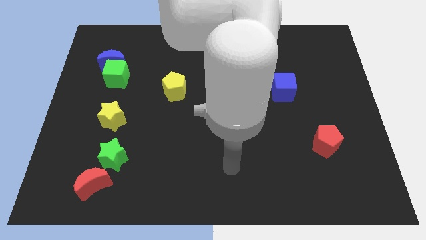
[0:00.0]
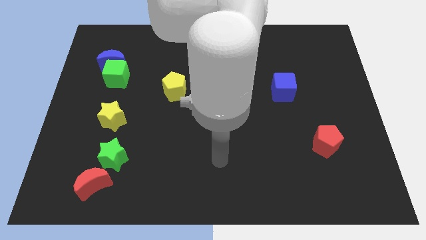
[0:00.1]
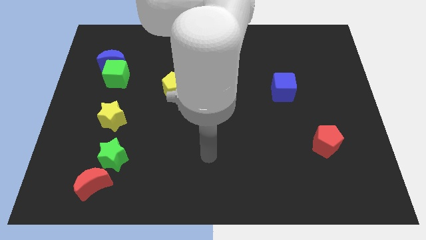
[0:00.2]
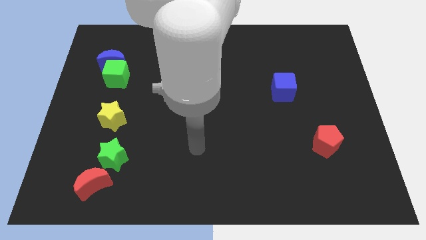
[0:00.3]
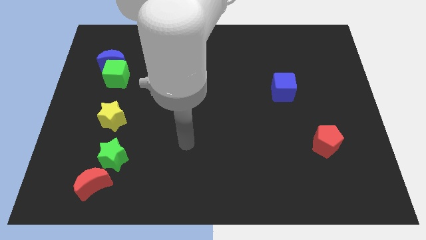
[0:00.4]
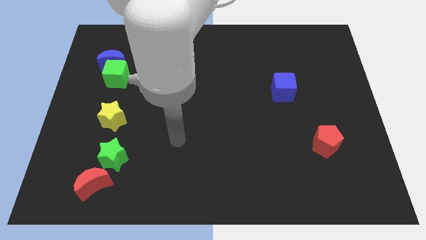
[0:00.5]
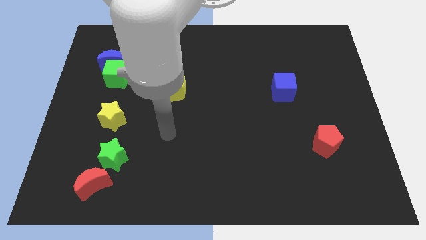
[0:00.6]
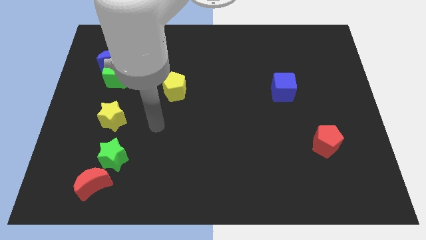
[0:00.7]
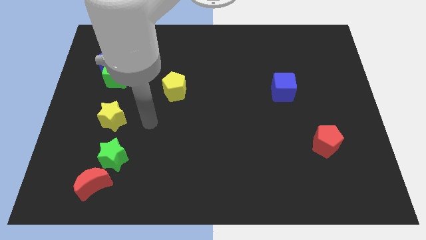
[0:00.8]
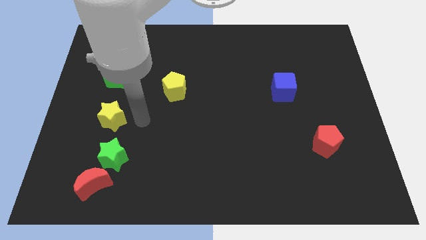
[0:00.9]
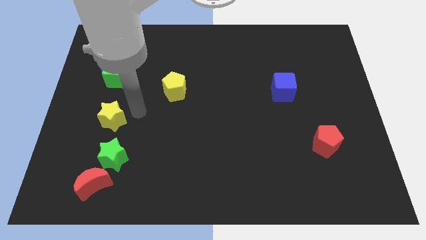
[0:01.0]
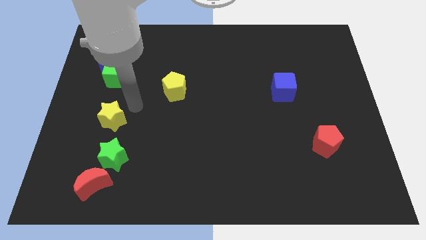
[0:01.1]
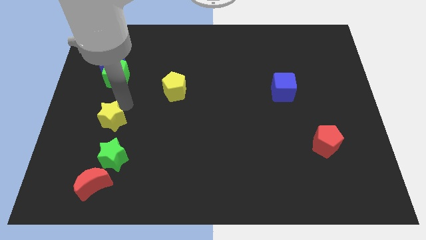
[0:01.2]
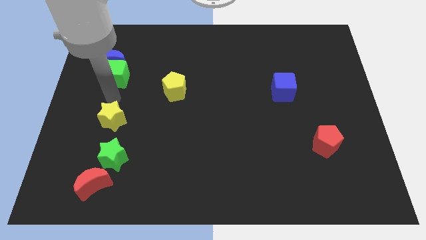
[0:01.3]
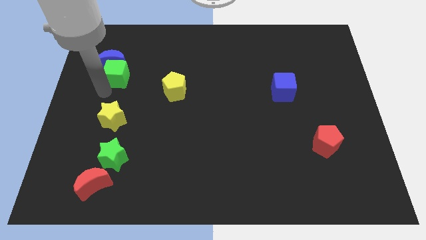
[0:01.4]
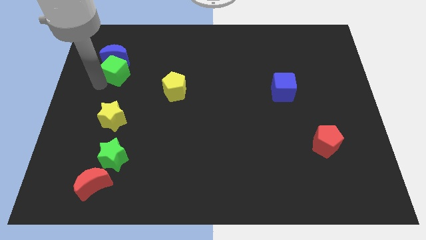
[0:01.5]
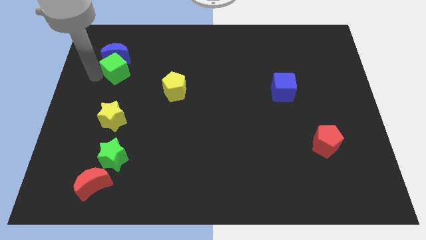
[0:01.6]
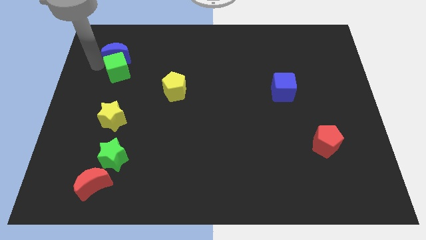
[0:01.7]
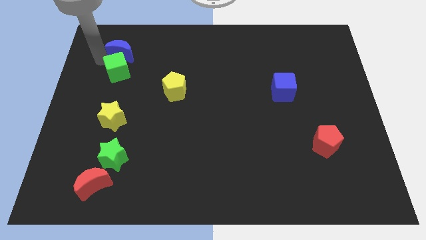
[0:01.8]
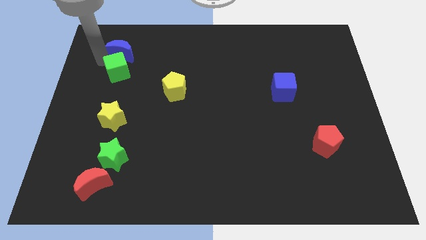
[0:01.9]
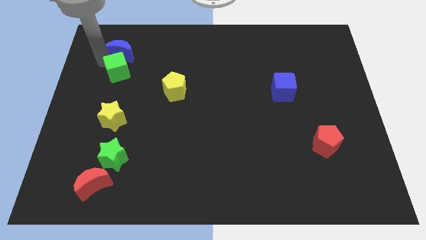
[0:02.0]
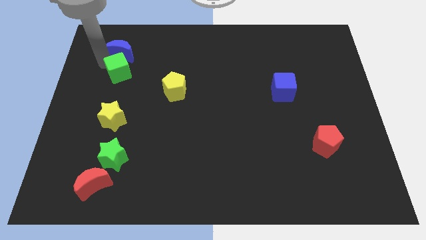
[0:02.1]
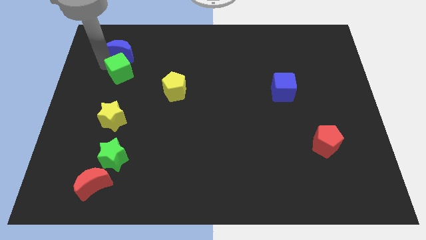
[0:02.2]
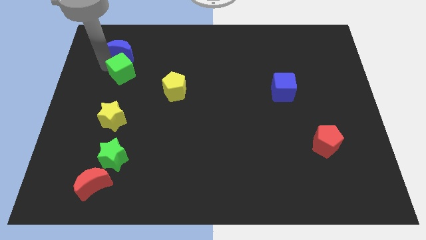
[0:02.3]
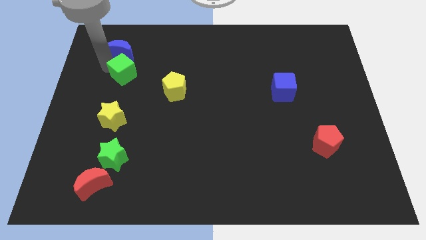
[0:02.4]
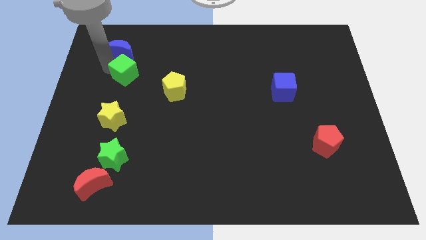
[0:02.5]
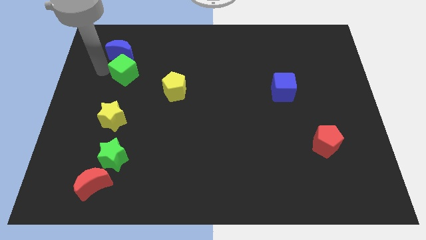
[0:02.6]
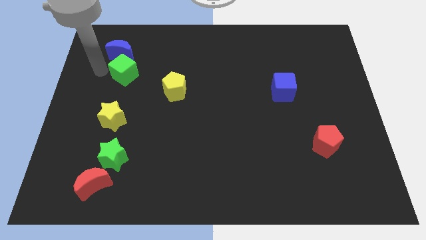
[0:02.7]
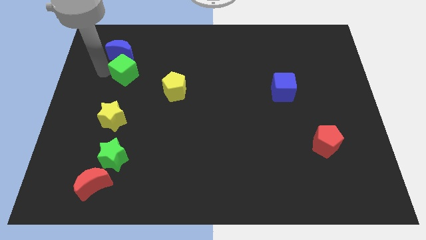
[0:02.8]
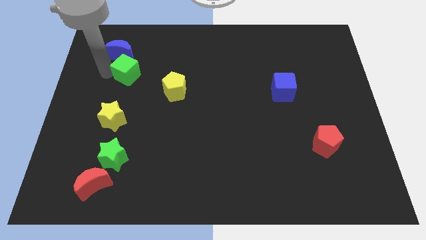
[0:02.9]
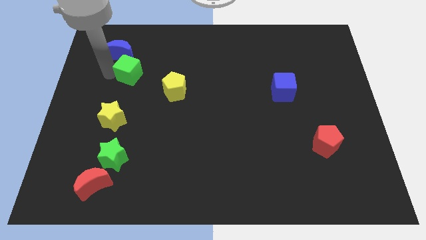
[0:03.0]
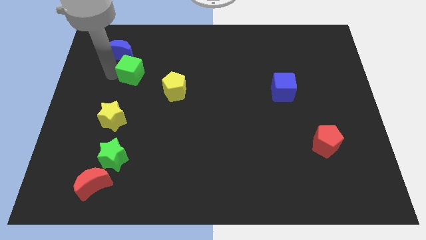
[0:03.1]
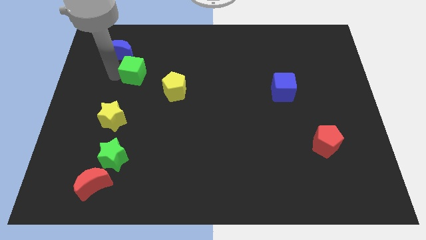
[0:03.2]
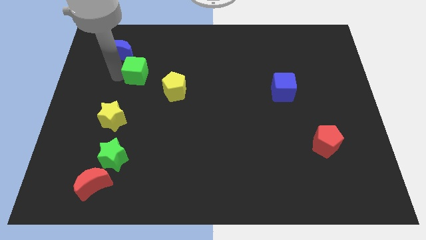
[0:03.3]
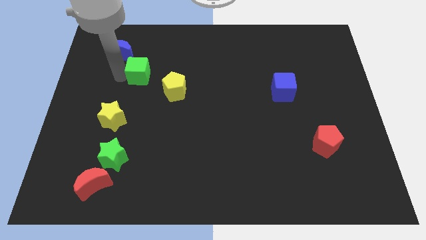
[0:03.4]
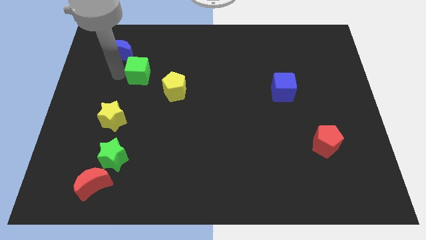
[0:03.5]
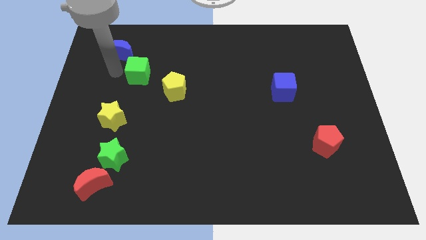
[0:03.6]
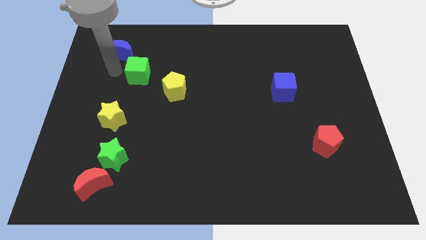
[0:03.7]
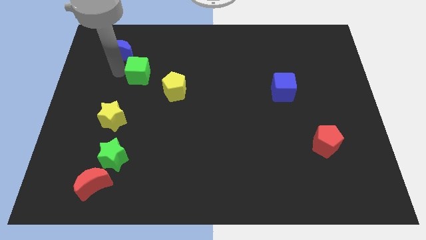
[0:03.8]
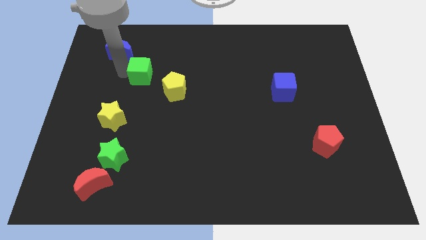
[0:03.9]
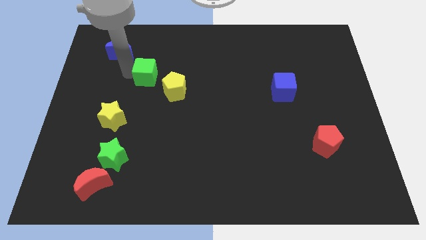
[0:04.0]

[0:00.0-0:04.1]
move the green cube a little to the right

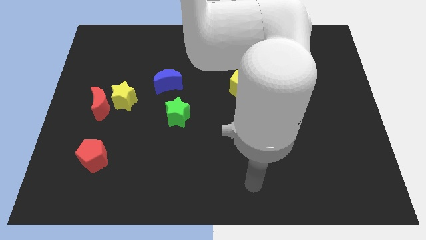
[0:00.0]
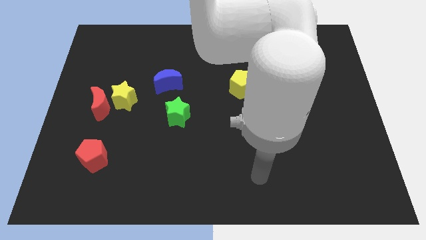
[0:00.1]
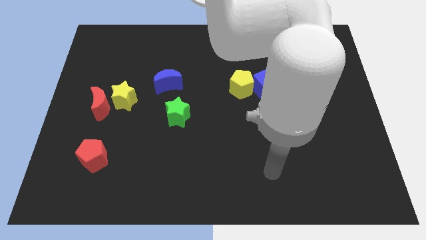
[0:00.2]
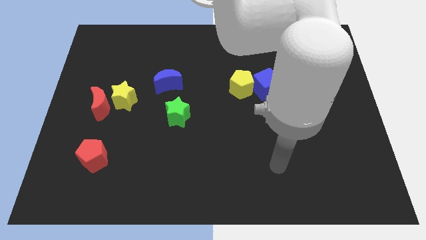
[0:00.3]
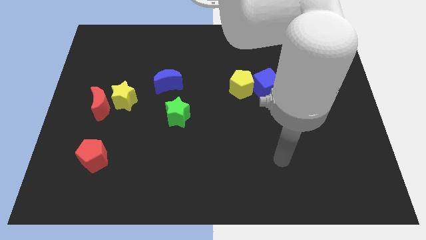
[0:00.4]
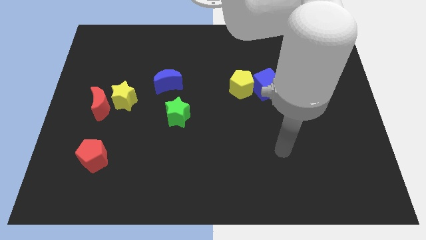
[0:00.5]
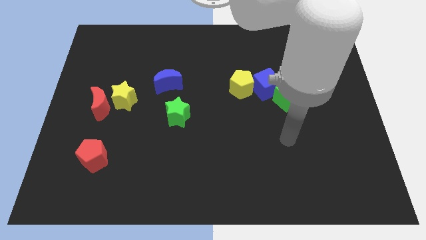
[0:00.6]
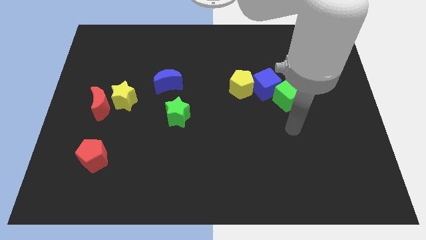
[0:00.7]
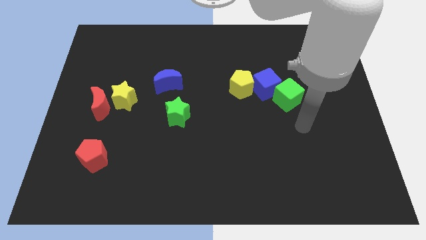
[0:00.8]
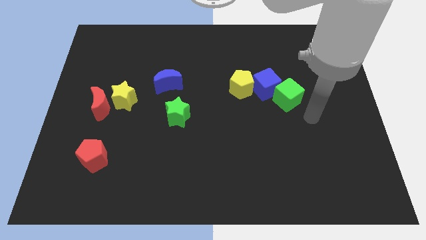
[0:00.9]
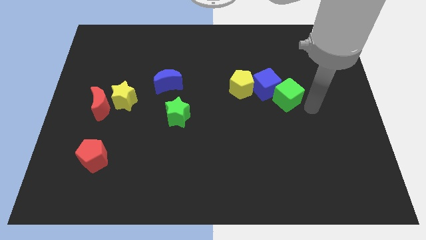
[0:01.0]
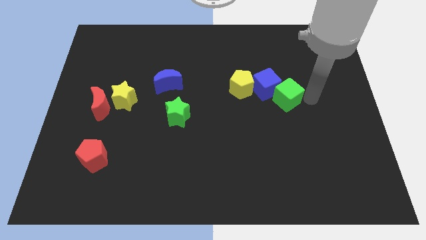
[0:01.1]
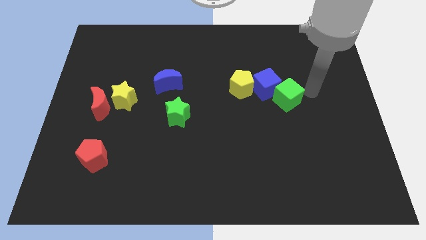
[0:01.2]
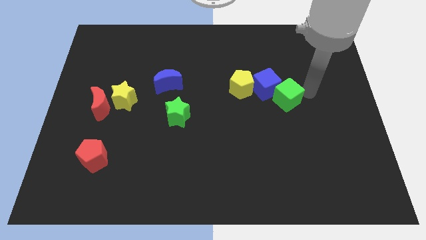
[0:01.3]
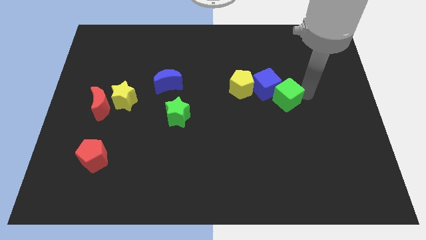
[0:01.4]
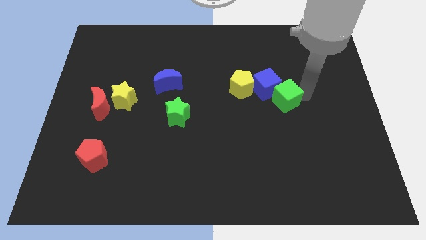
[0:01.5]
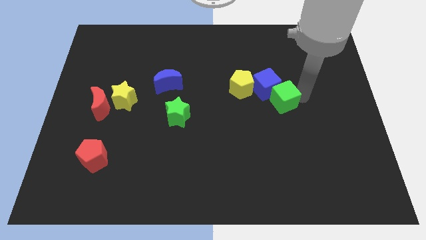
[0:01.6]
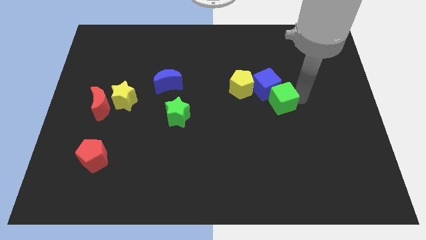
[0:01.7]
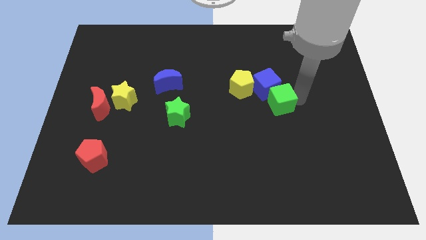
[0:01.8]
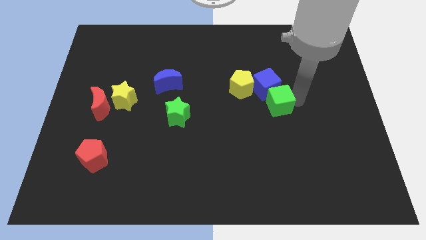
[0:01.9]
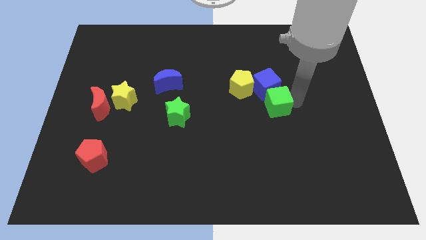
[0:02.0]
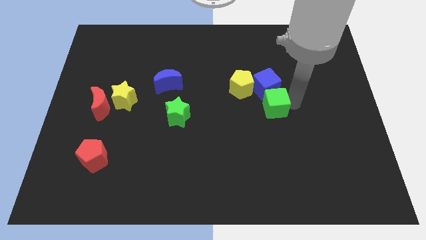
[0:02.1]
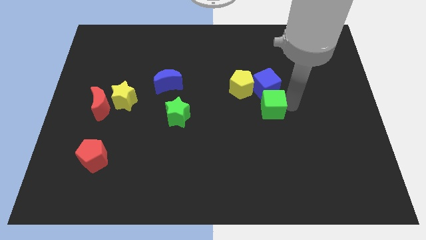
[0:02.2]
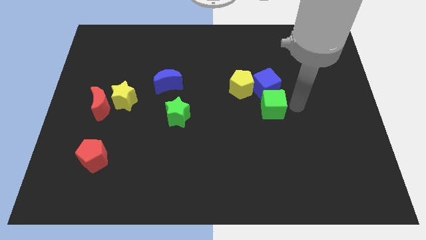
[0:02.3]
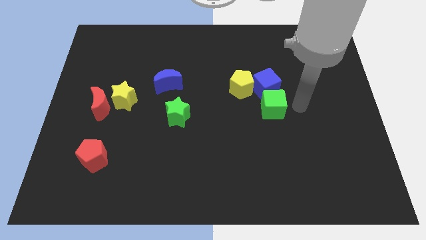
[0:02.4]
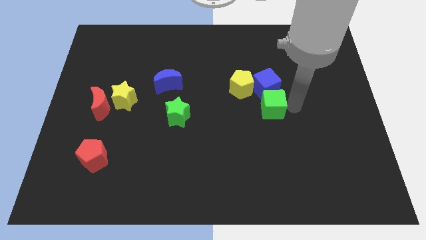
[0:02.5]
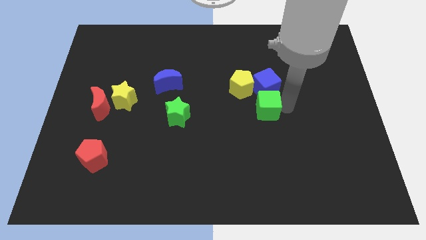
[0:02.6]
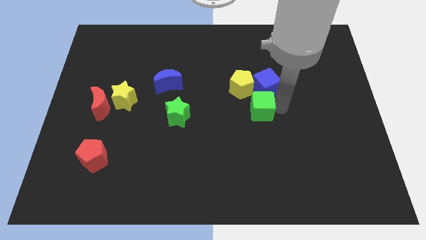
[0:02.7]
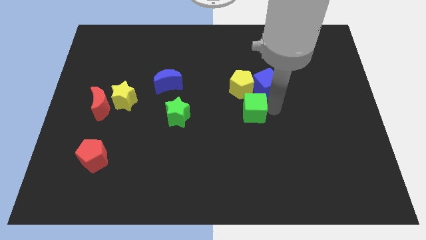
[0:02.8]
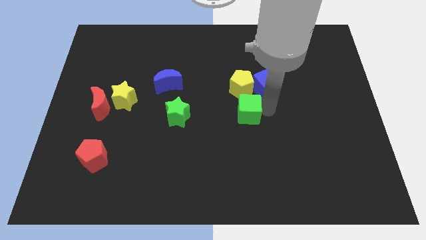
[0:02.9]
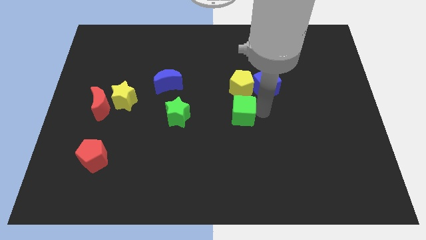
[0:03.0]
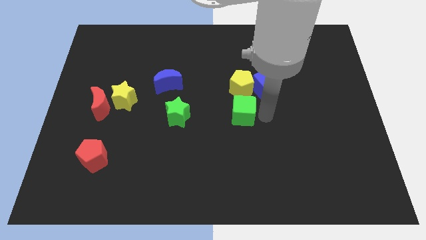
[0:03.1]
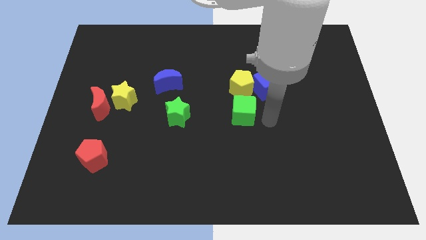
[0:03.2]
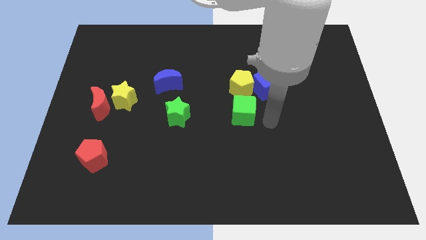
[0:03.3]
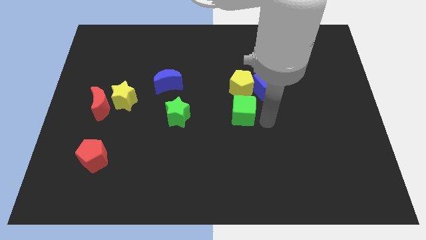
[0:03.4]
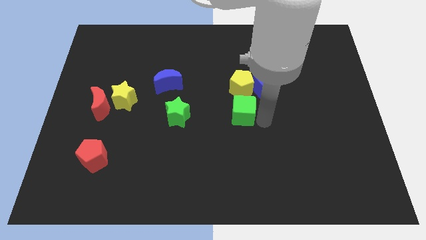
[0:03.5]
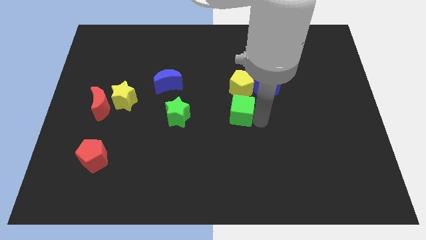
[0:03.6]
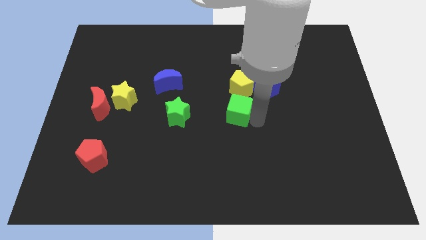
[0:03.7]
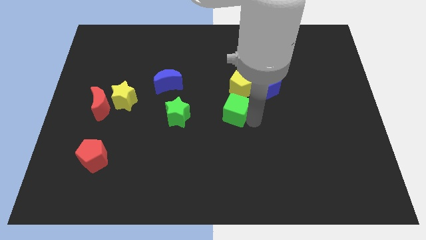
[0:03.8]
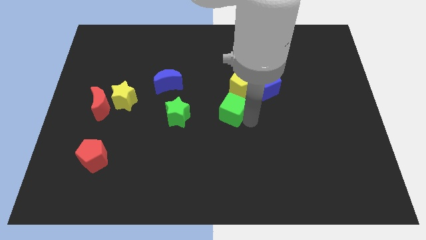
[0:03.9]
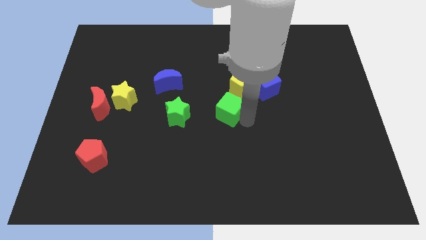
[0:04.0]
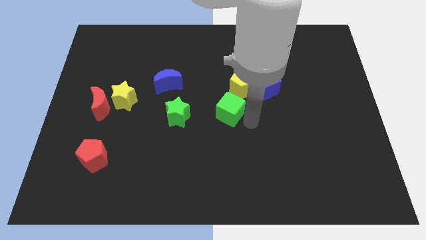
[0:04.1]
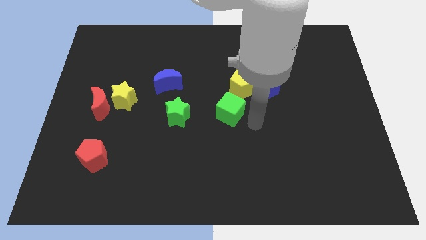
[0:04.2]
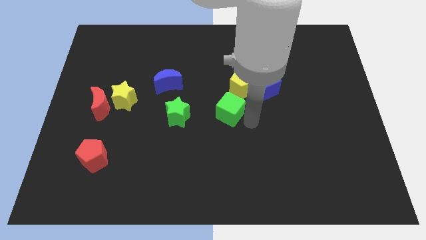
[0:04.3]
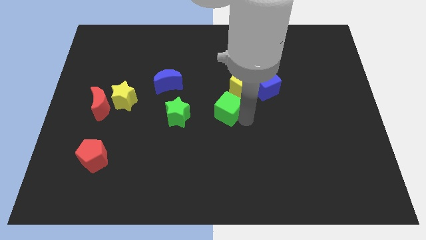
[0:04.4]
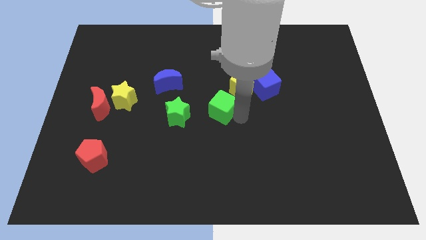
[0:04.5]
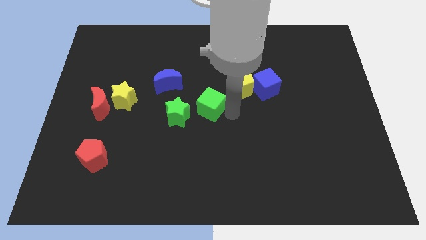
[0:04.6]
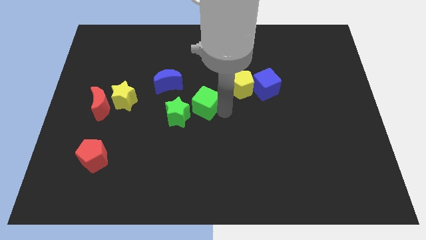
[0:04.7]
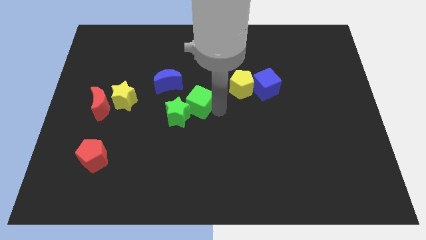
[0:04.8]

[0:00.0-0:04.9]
slide the green cube left
